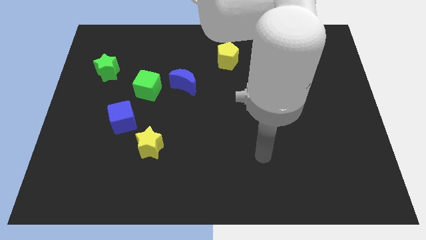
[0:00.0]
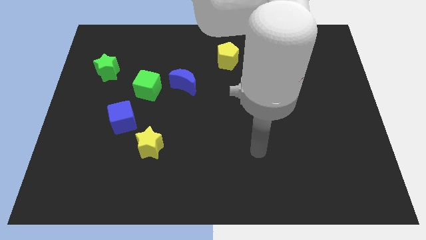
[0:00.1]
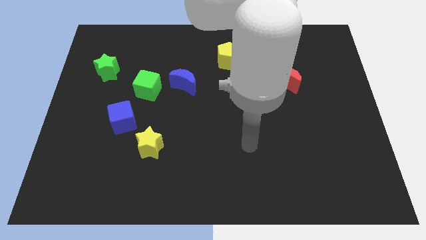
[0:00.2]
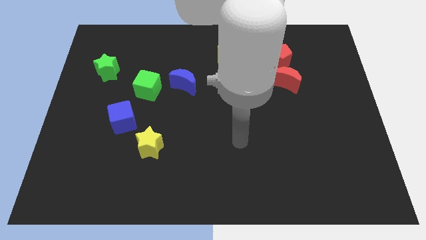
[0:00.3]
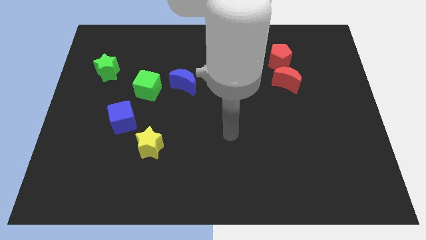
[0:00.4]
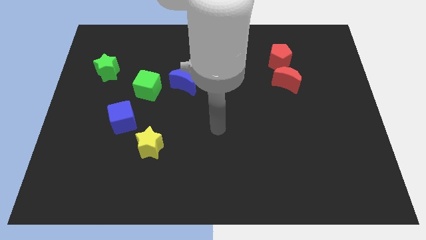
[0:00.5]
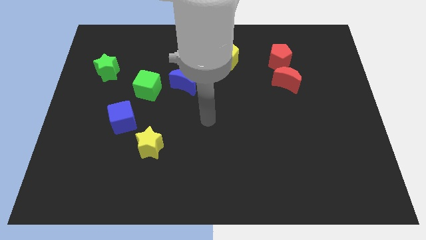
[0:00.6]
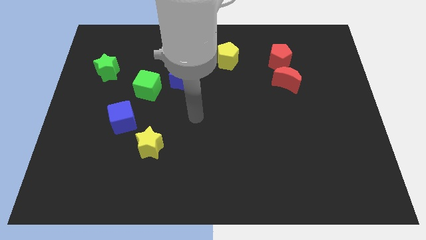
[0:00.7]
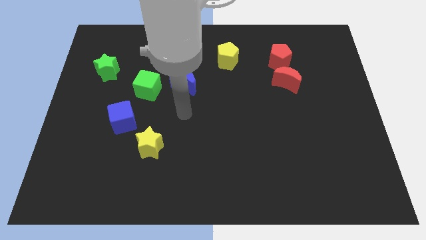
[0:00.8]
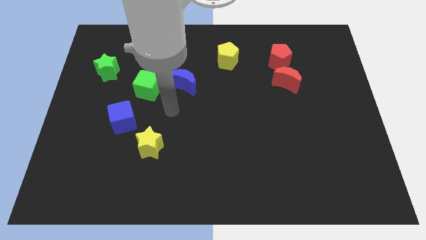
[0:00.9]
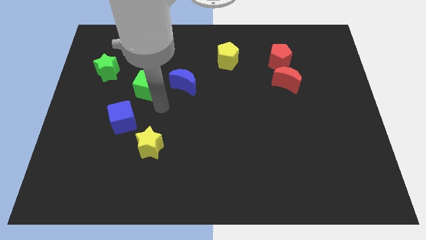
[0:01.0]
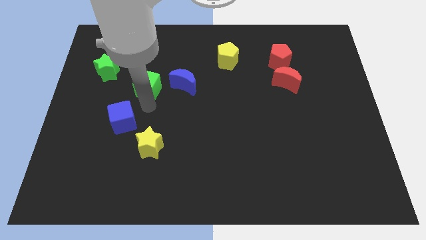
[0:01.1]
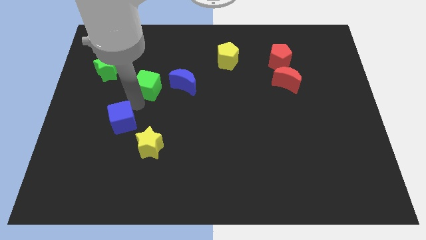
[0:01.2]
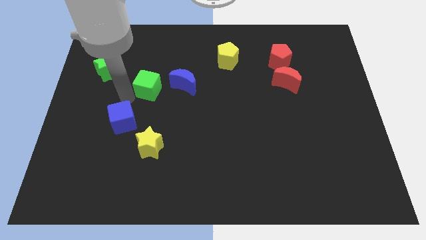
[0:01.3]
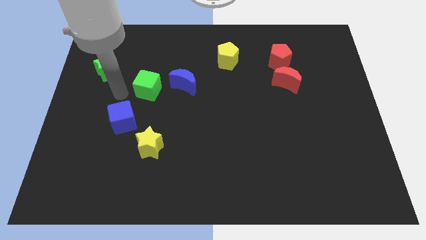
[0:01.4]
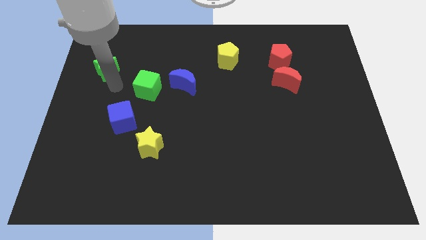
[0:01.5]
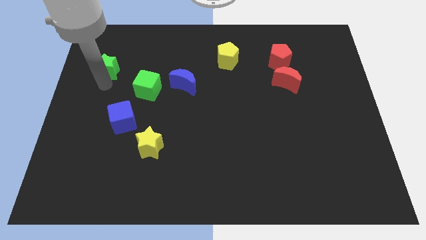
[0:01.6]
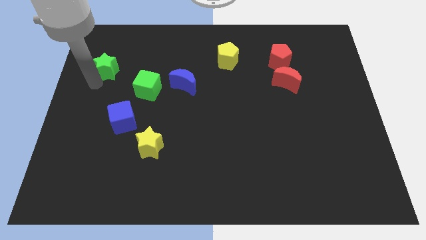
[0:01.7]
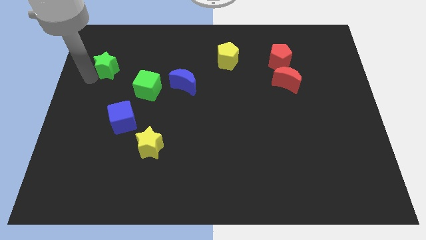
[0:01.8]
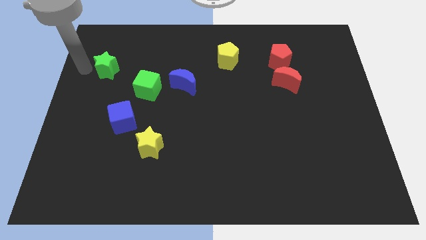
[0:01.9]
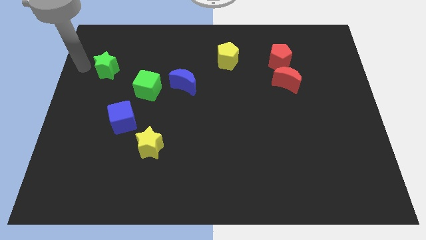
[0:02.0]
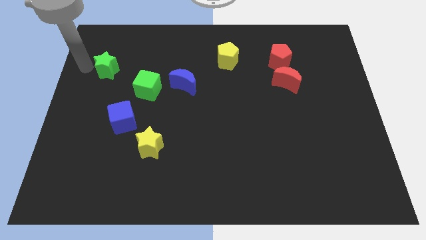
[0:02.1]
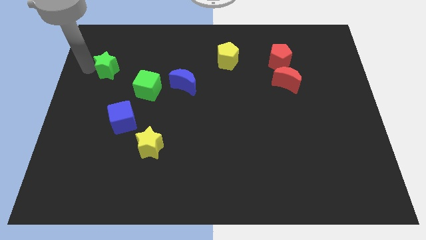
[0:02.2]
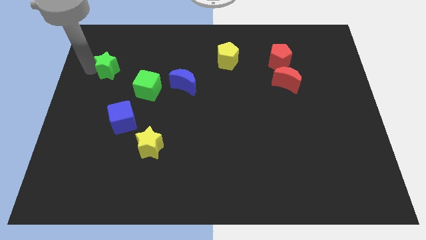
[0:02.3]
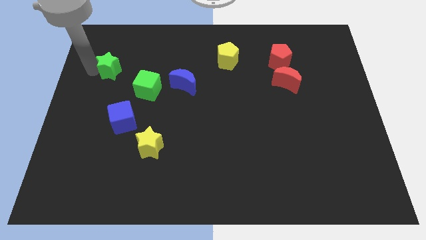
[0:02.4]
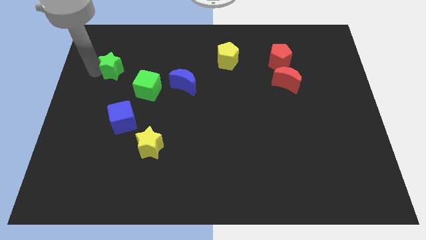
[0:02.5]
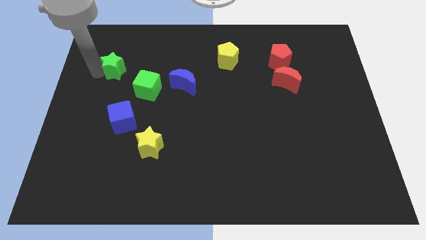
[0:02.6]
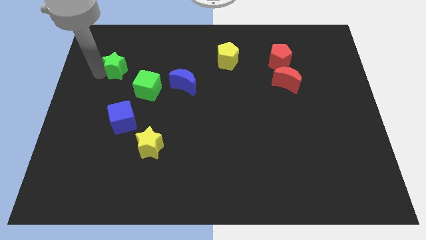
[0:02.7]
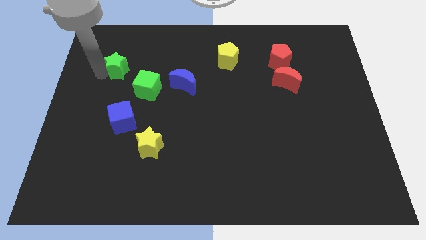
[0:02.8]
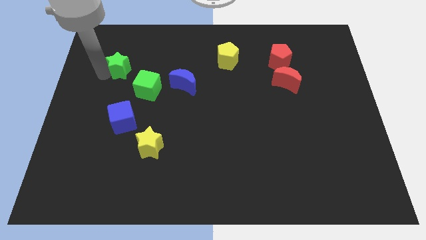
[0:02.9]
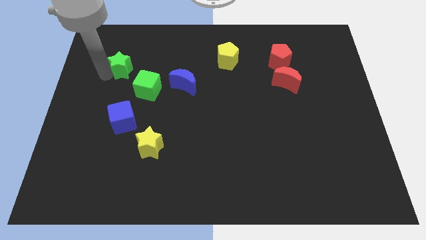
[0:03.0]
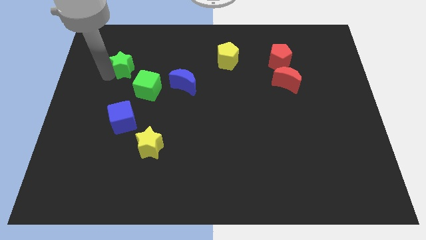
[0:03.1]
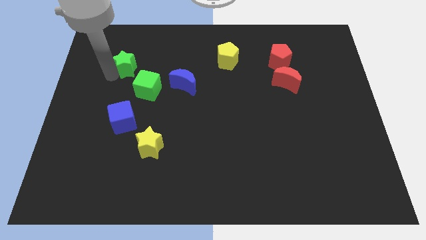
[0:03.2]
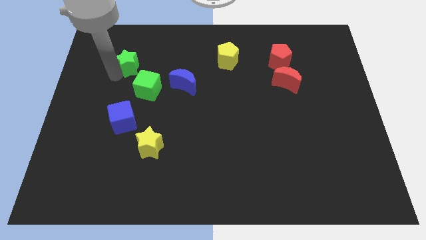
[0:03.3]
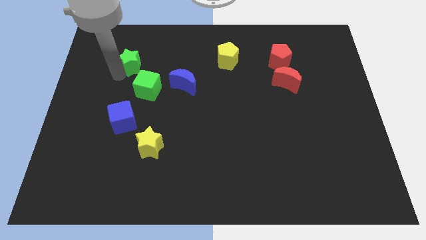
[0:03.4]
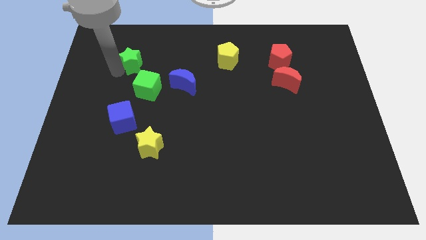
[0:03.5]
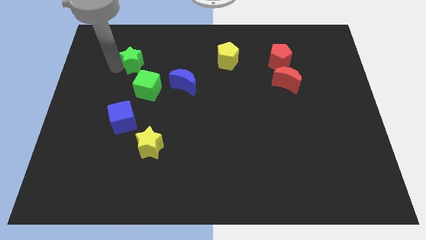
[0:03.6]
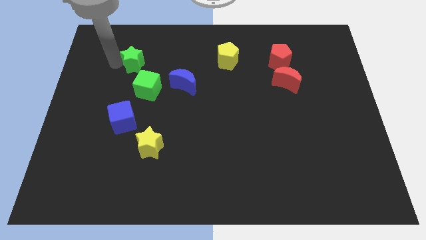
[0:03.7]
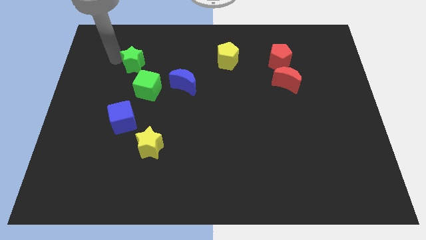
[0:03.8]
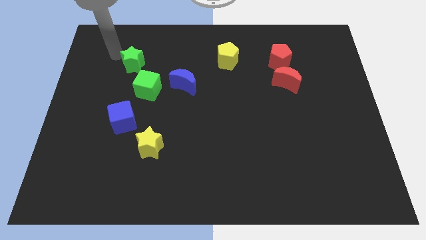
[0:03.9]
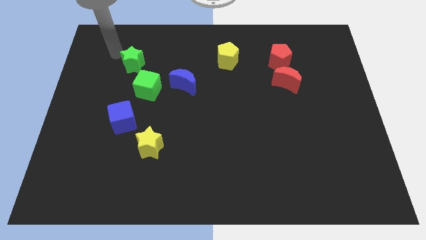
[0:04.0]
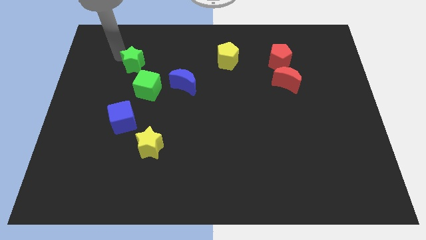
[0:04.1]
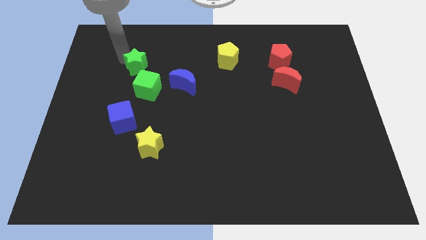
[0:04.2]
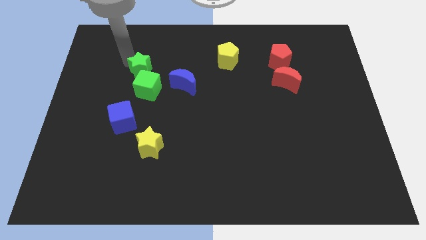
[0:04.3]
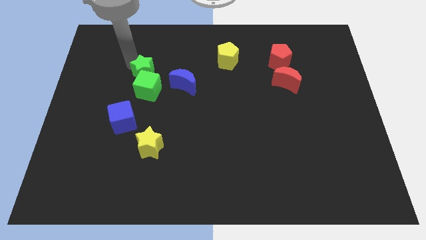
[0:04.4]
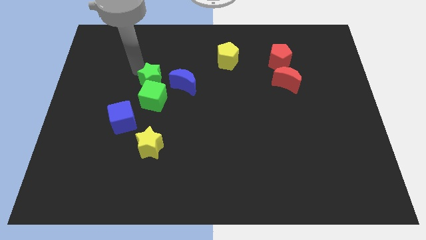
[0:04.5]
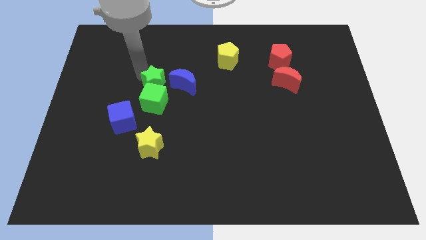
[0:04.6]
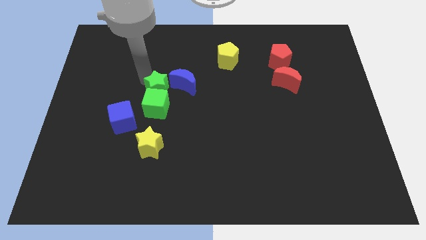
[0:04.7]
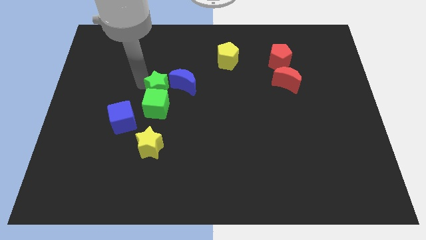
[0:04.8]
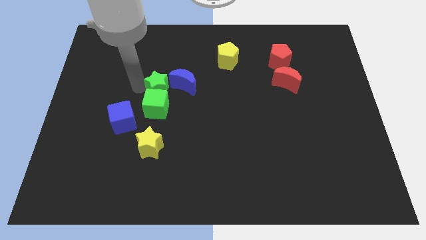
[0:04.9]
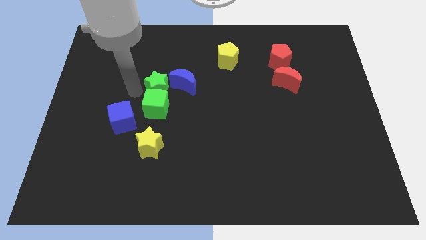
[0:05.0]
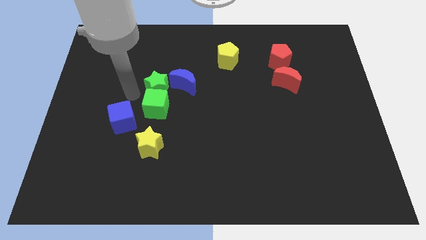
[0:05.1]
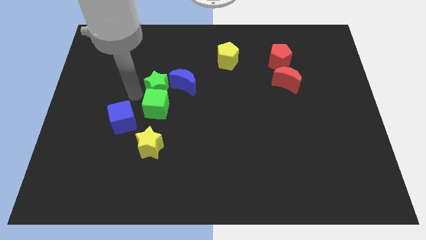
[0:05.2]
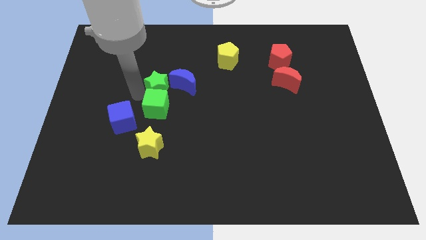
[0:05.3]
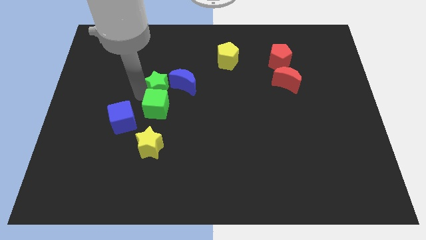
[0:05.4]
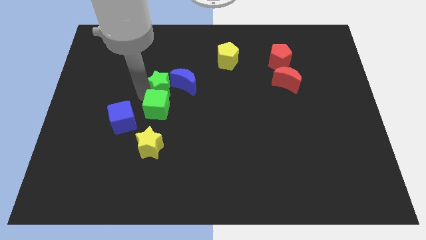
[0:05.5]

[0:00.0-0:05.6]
slide the green star towards the blue moon

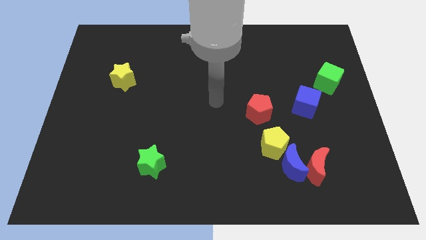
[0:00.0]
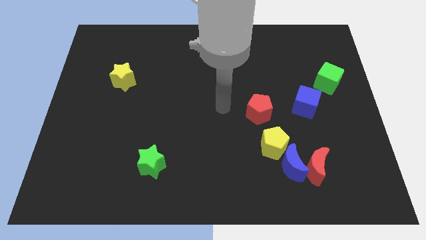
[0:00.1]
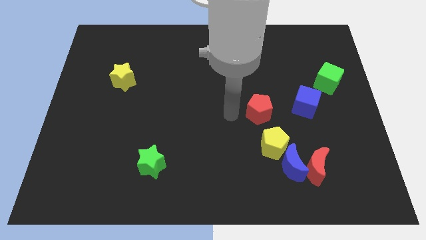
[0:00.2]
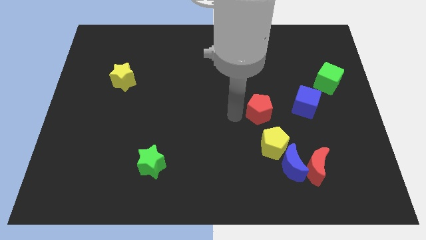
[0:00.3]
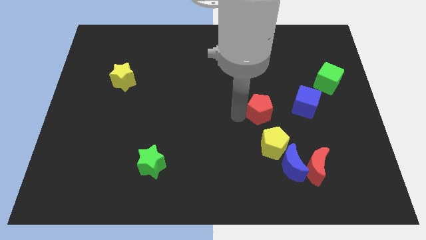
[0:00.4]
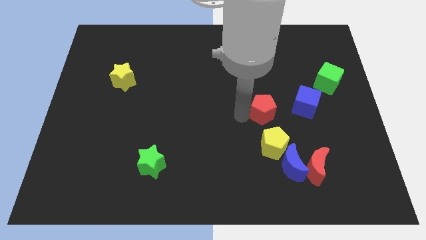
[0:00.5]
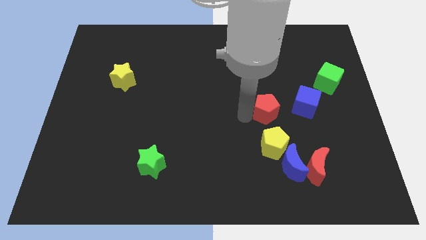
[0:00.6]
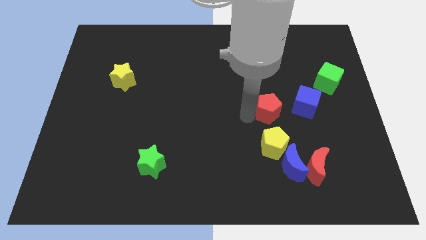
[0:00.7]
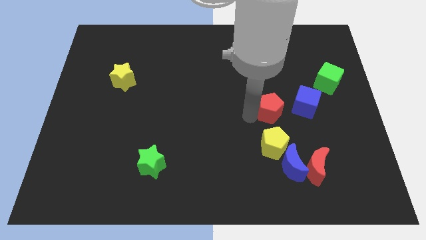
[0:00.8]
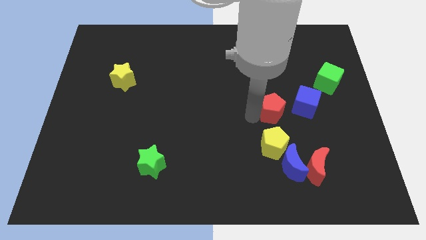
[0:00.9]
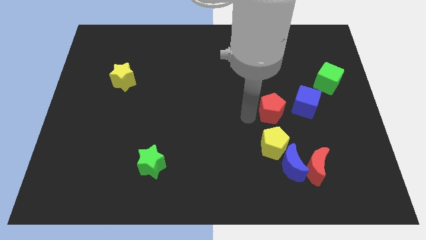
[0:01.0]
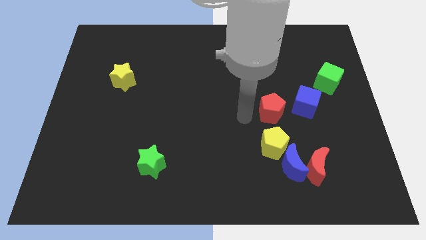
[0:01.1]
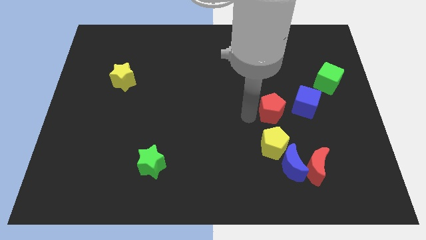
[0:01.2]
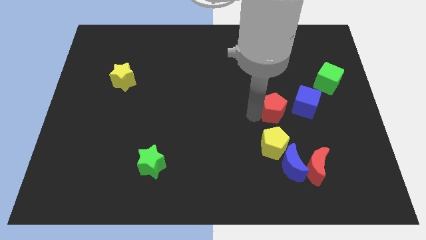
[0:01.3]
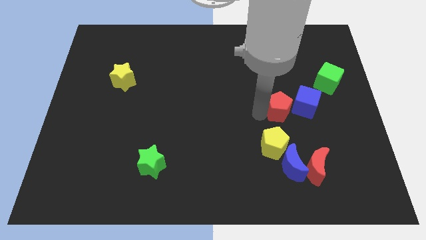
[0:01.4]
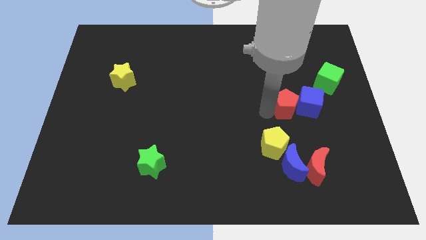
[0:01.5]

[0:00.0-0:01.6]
slide the red pentagon close to the blue cube

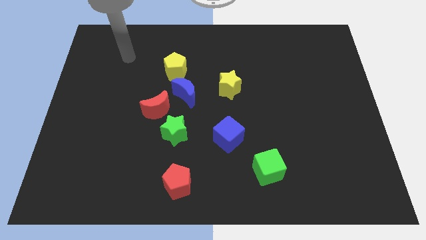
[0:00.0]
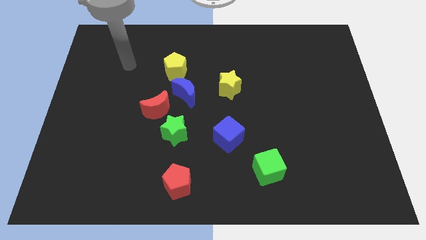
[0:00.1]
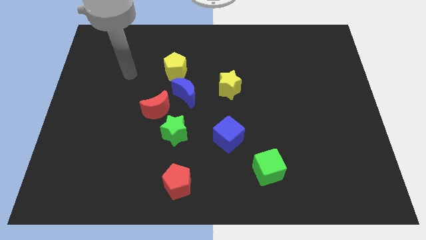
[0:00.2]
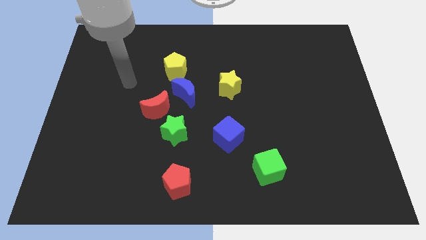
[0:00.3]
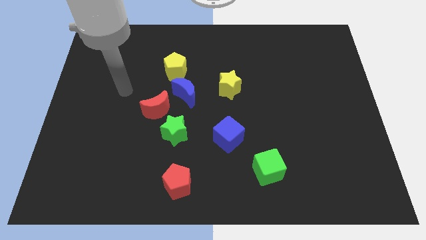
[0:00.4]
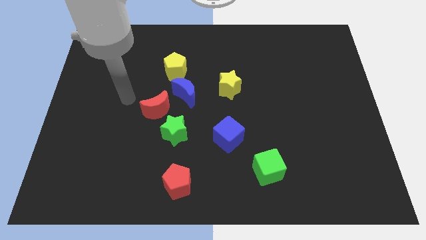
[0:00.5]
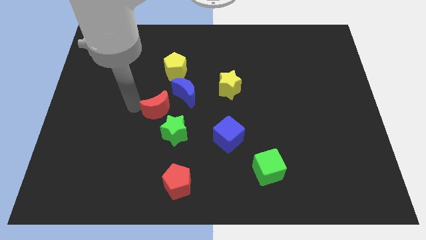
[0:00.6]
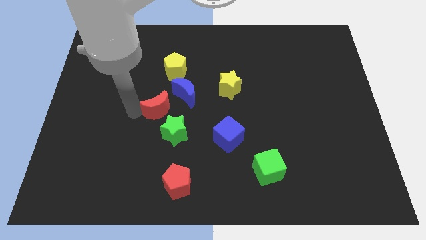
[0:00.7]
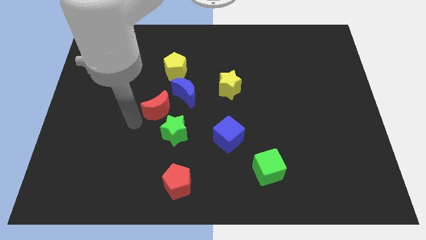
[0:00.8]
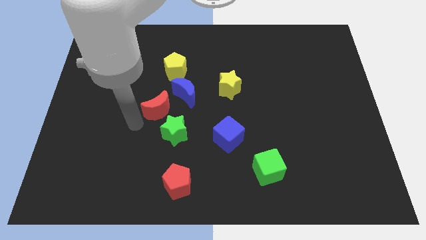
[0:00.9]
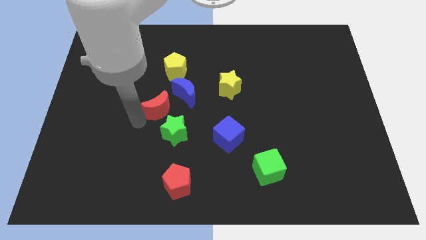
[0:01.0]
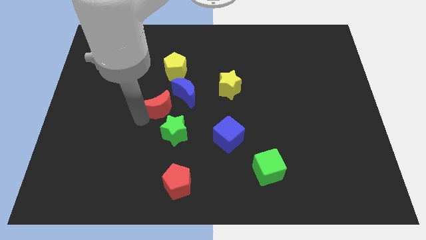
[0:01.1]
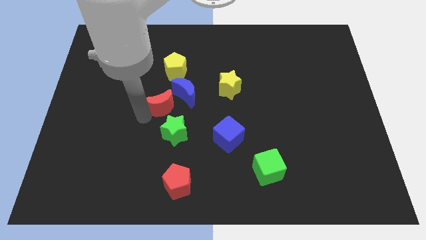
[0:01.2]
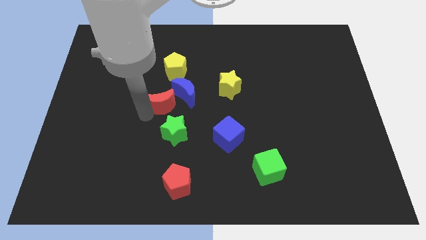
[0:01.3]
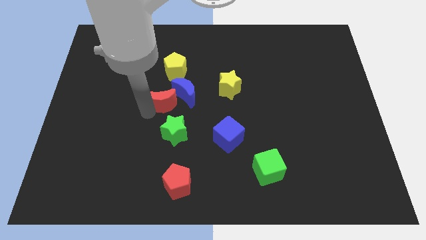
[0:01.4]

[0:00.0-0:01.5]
put the red moon next to the blue moon
